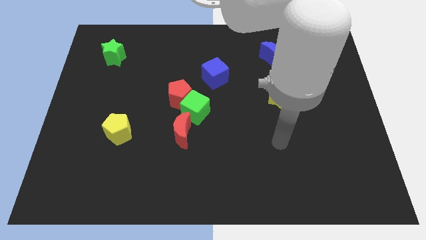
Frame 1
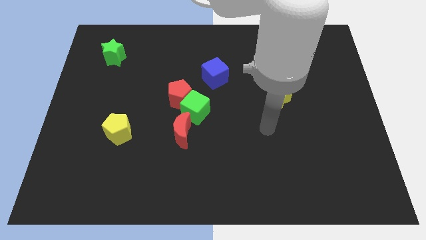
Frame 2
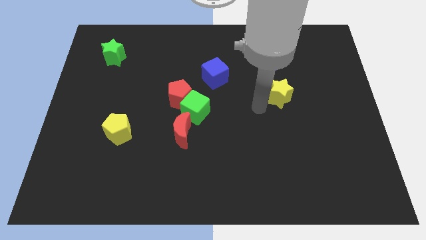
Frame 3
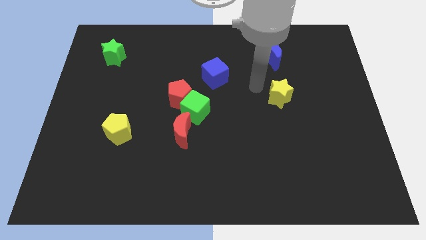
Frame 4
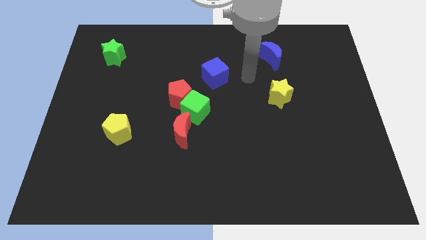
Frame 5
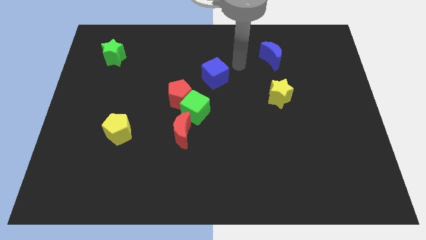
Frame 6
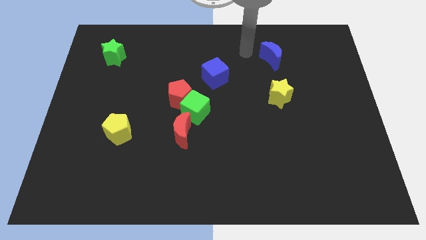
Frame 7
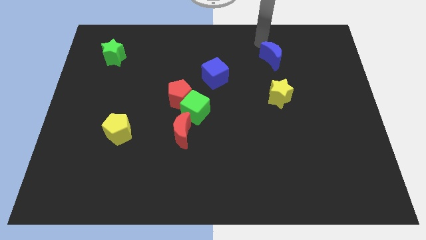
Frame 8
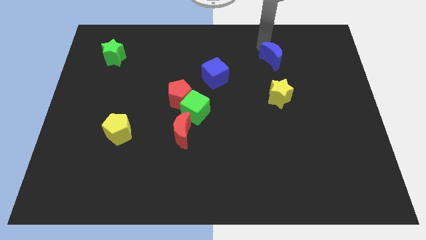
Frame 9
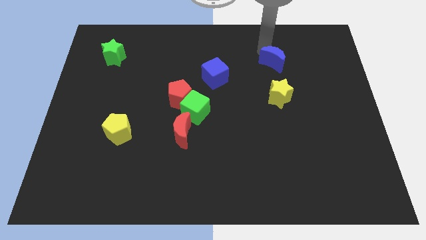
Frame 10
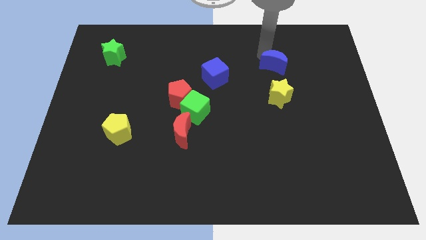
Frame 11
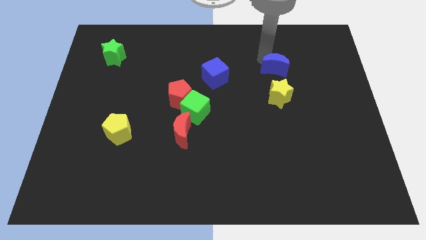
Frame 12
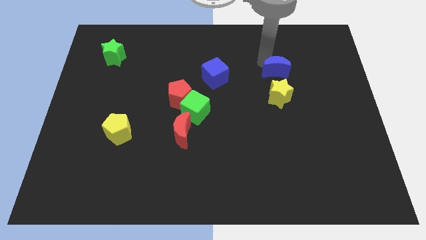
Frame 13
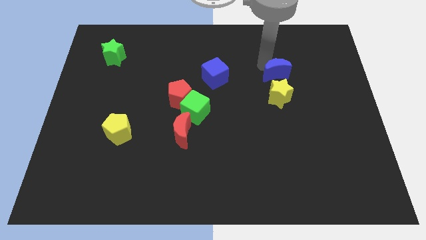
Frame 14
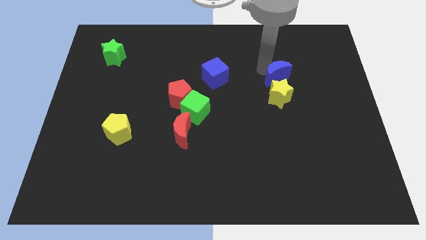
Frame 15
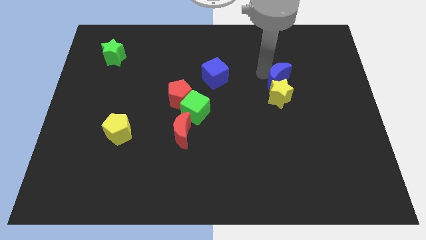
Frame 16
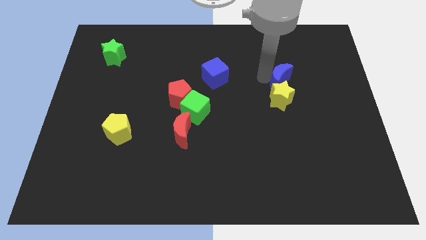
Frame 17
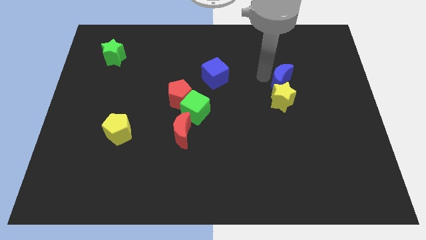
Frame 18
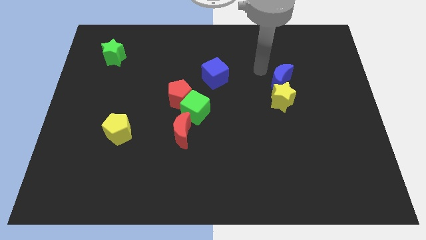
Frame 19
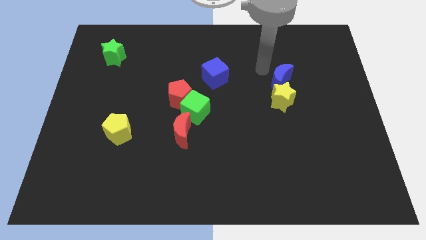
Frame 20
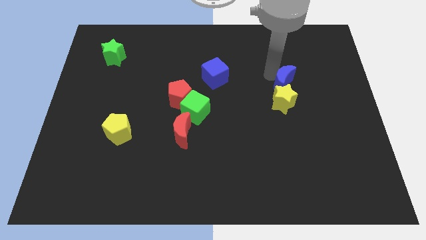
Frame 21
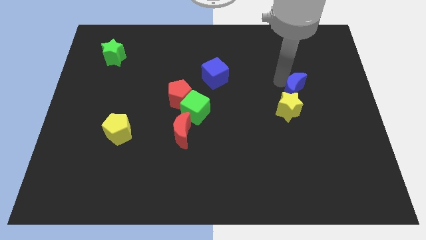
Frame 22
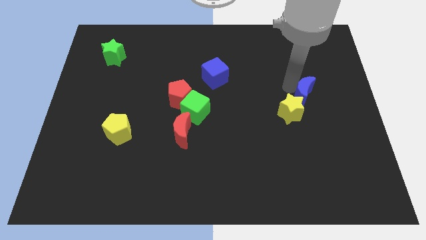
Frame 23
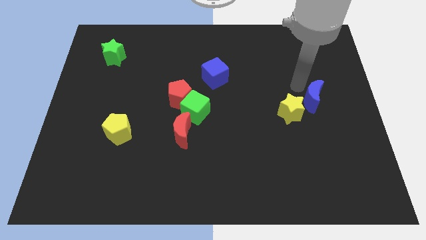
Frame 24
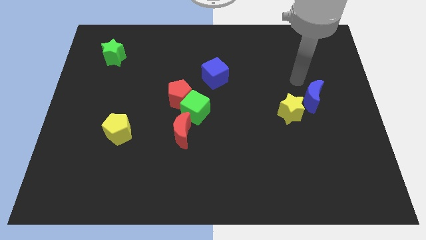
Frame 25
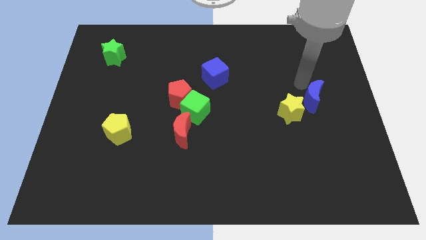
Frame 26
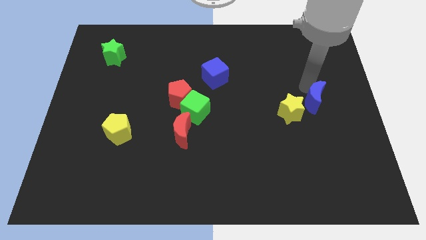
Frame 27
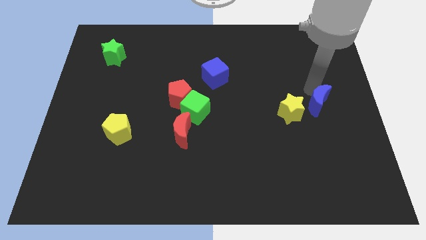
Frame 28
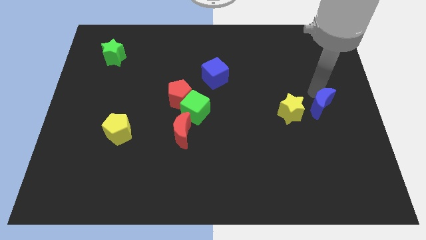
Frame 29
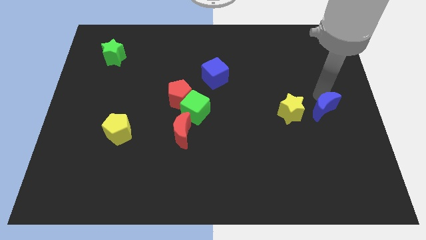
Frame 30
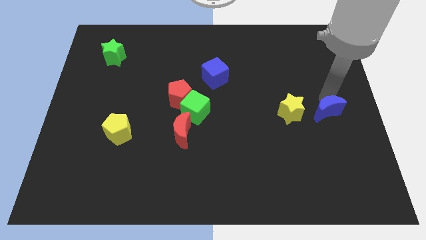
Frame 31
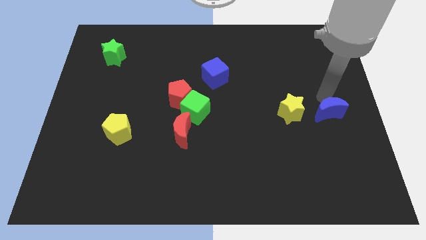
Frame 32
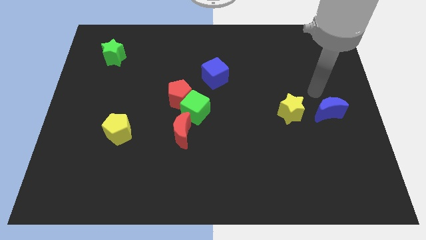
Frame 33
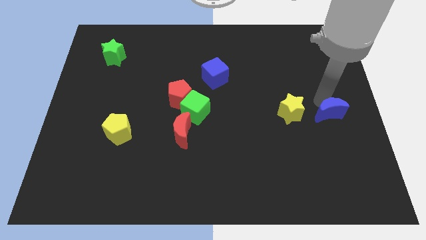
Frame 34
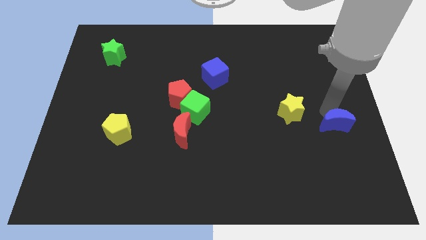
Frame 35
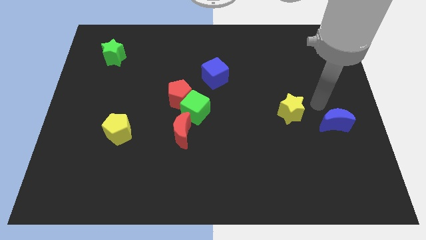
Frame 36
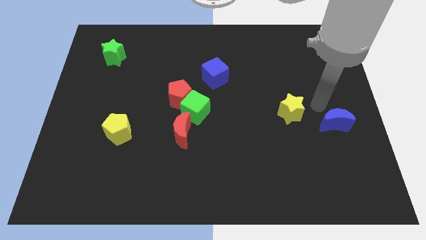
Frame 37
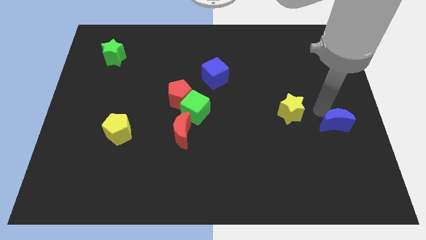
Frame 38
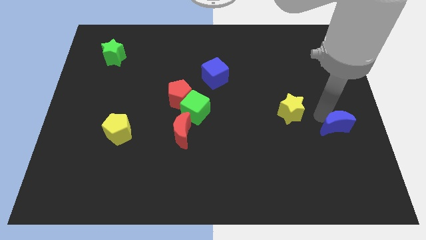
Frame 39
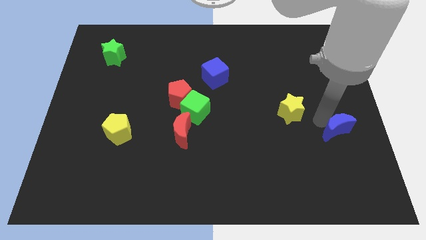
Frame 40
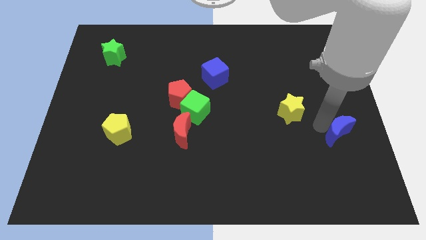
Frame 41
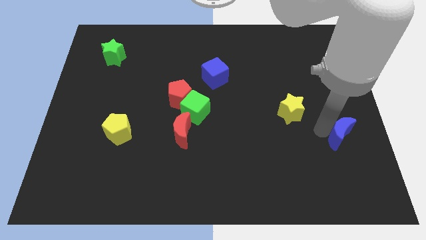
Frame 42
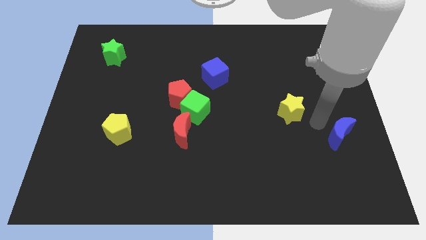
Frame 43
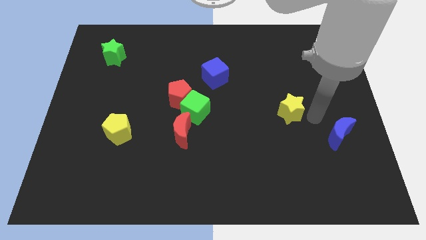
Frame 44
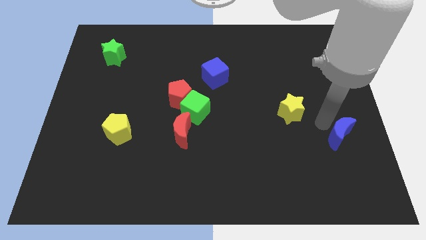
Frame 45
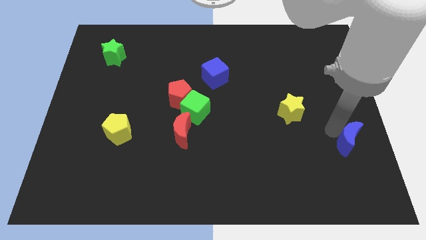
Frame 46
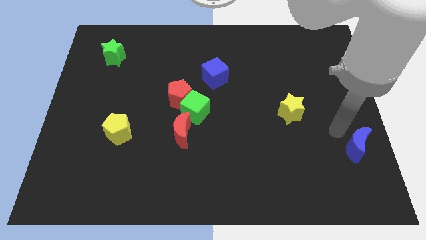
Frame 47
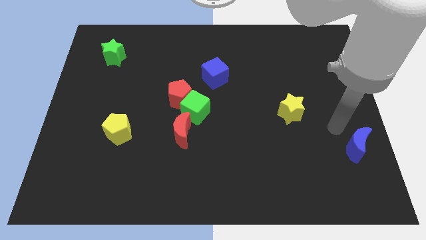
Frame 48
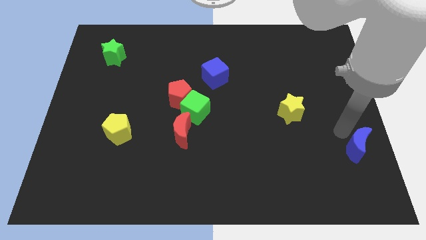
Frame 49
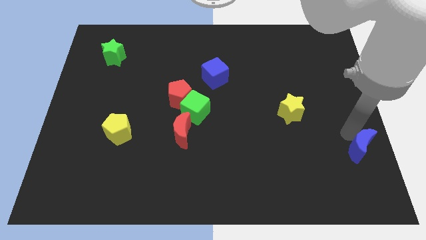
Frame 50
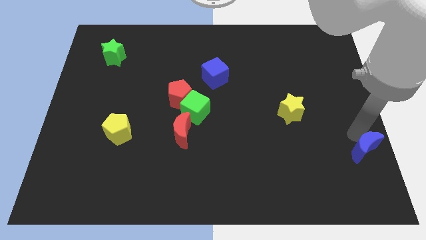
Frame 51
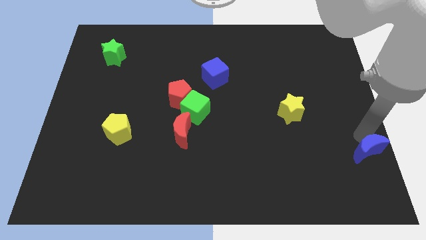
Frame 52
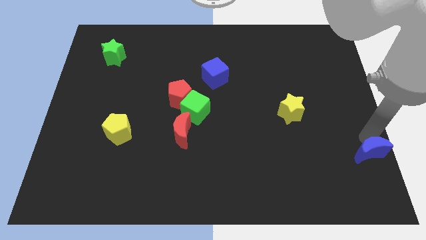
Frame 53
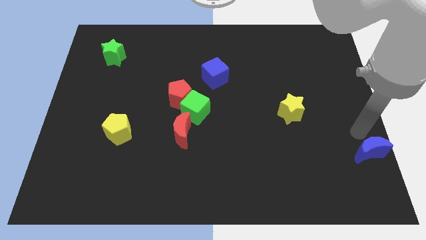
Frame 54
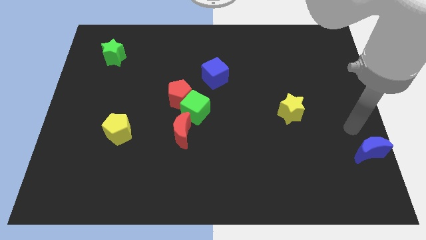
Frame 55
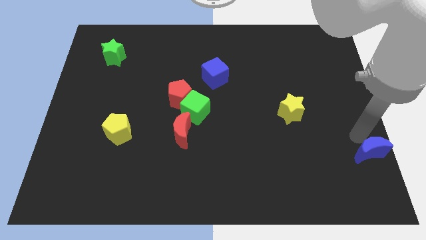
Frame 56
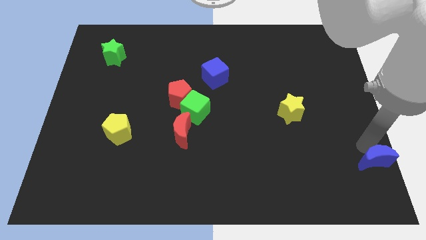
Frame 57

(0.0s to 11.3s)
put the blue moon to the bottom right

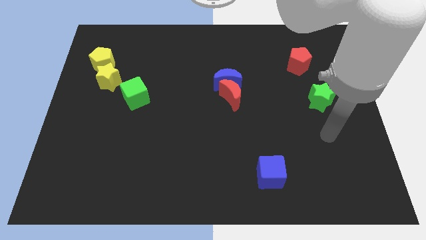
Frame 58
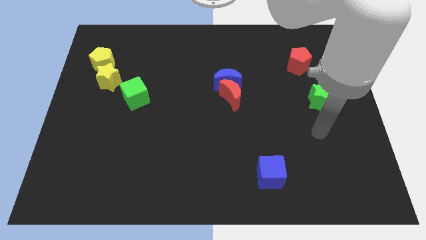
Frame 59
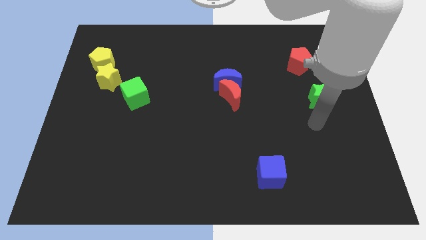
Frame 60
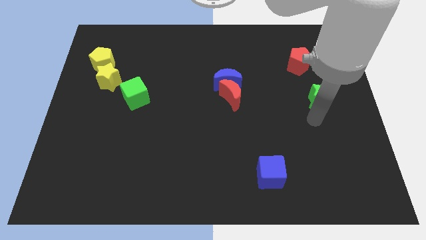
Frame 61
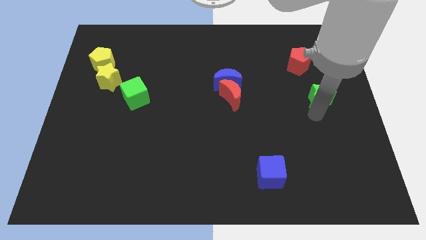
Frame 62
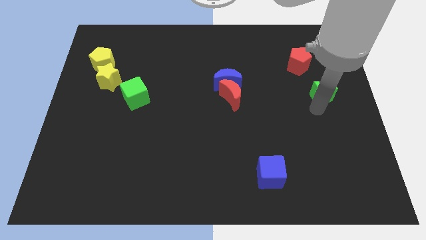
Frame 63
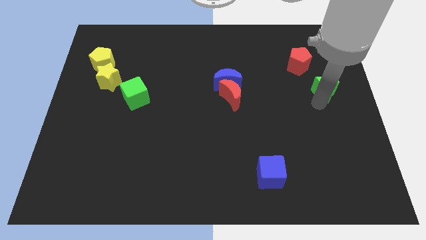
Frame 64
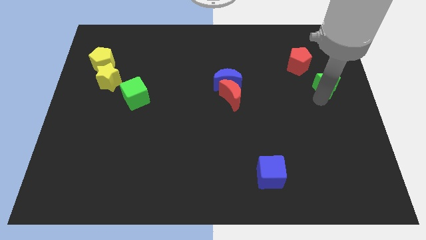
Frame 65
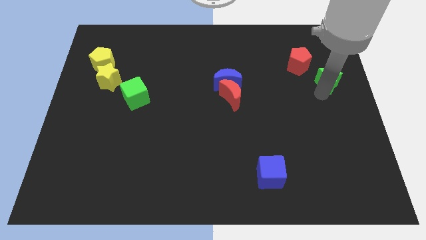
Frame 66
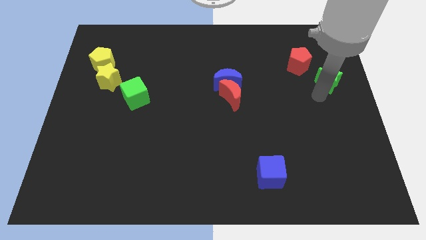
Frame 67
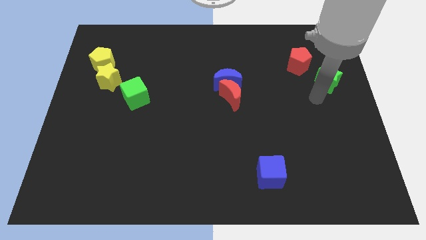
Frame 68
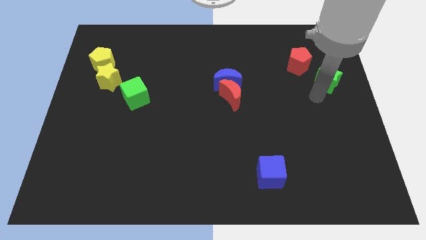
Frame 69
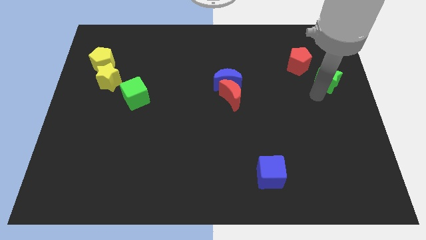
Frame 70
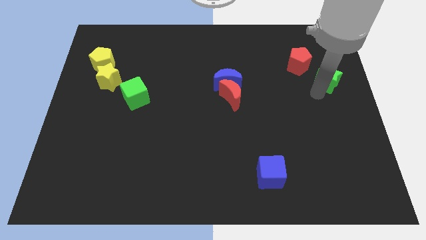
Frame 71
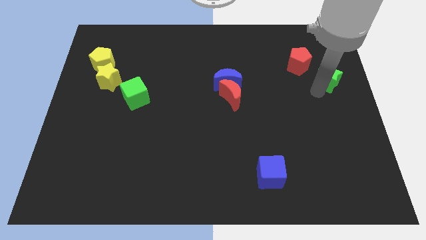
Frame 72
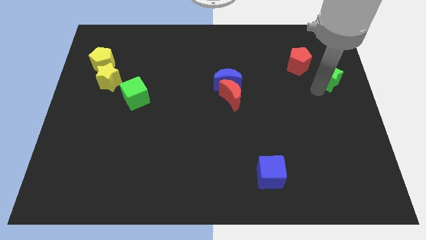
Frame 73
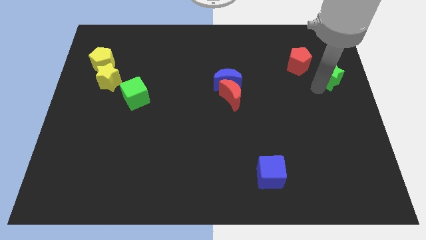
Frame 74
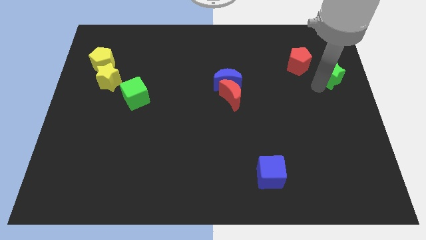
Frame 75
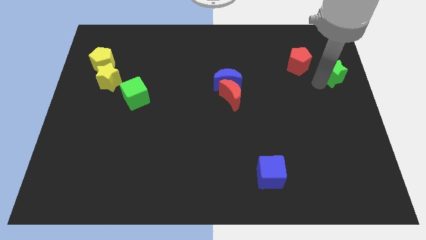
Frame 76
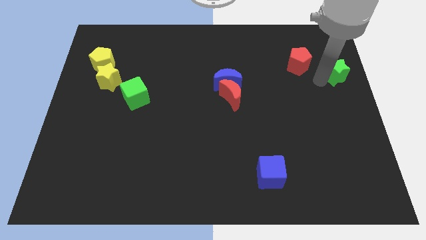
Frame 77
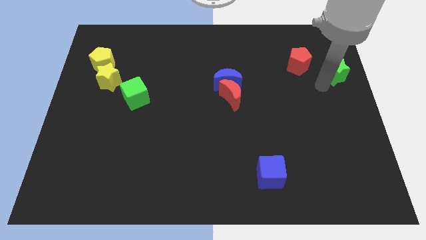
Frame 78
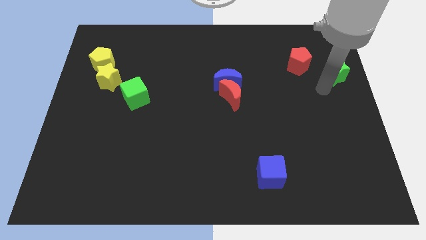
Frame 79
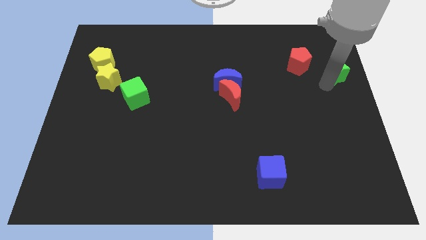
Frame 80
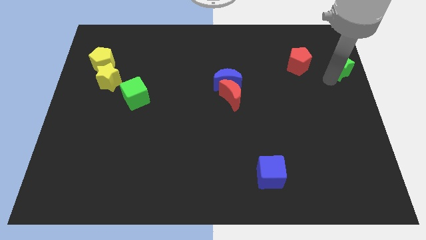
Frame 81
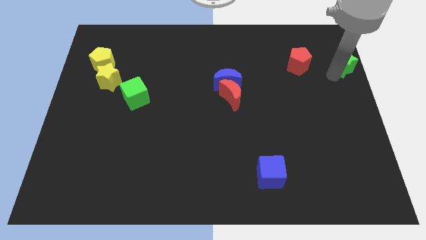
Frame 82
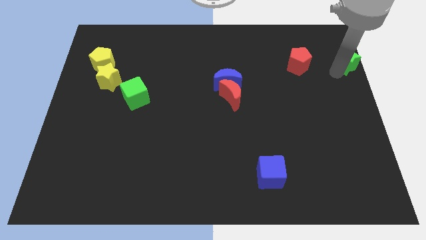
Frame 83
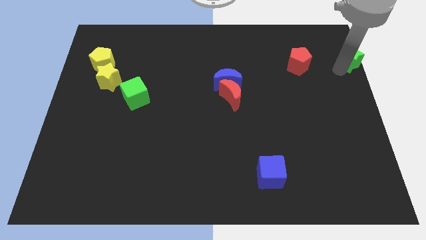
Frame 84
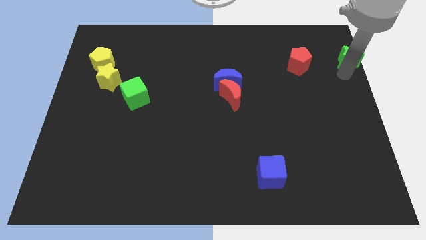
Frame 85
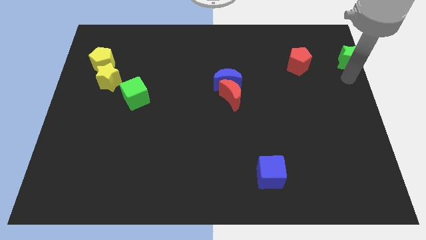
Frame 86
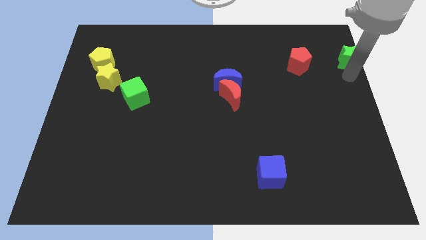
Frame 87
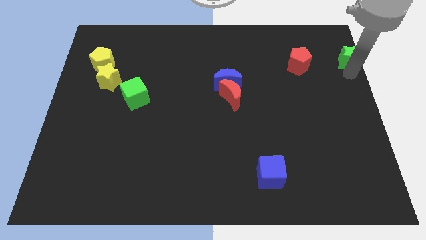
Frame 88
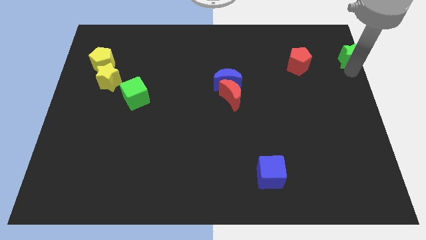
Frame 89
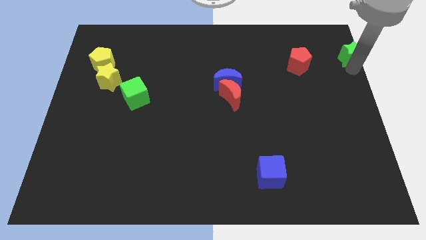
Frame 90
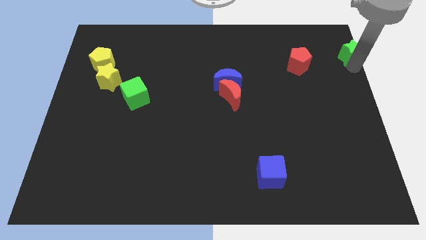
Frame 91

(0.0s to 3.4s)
put the green star to the upper right corner
